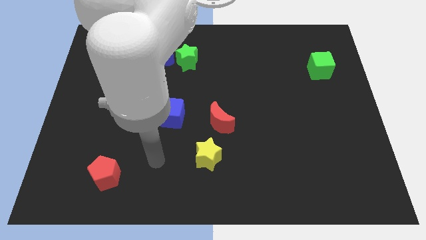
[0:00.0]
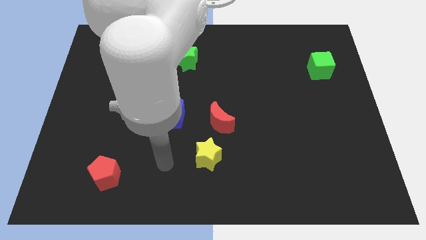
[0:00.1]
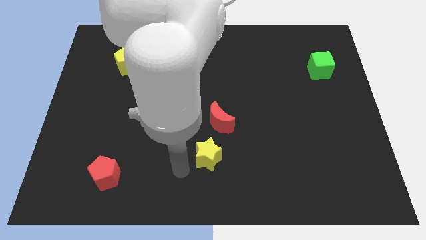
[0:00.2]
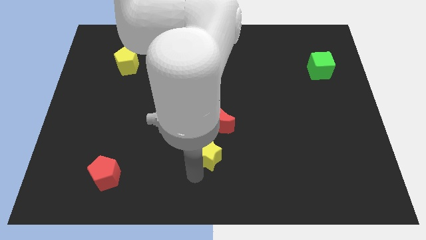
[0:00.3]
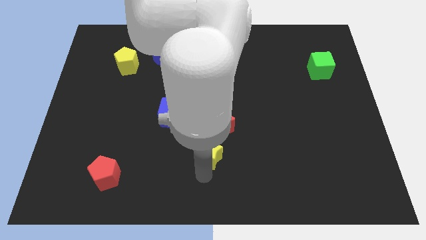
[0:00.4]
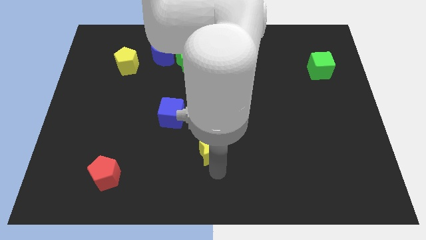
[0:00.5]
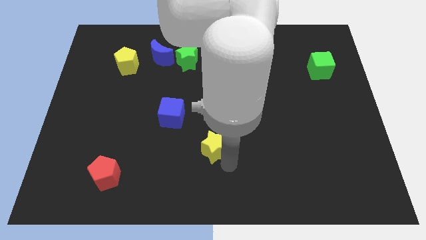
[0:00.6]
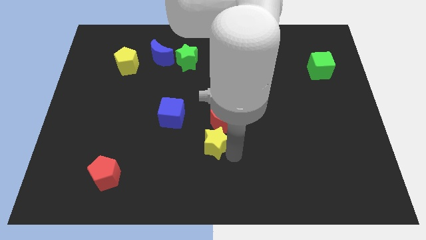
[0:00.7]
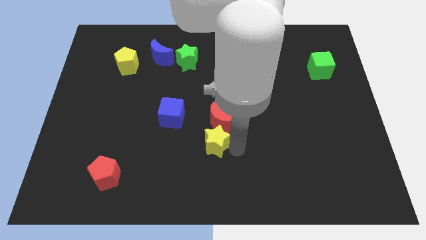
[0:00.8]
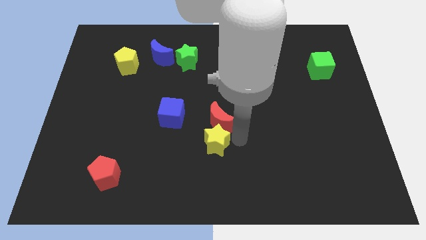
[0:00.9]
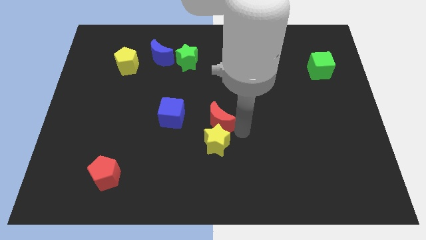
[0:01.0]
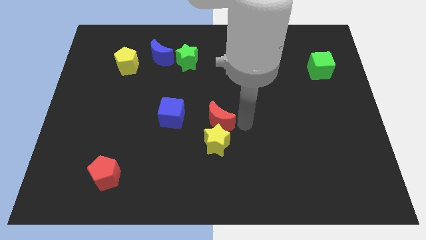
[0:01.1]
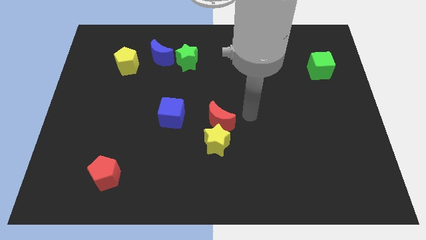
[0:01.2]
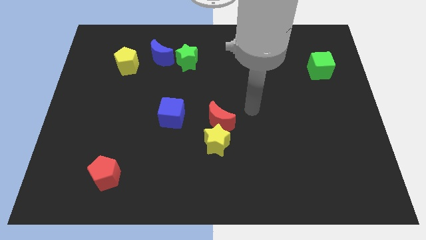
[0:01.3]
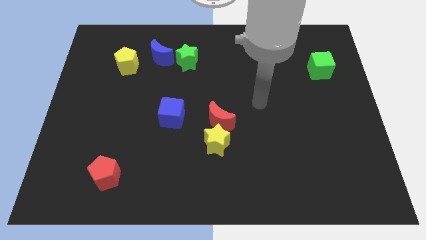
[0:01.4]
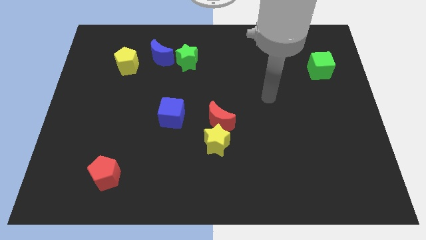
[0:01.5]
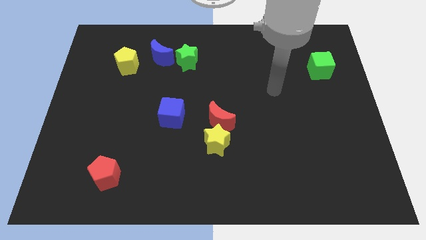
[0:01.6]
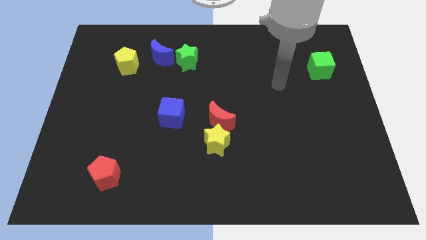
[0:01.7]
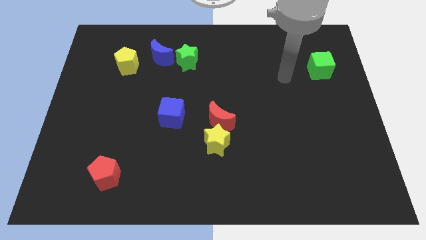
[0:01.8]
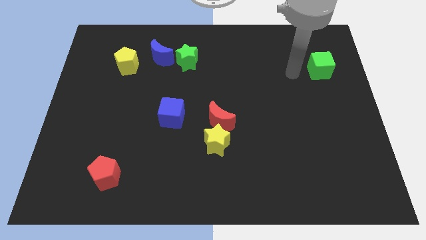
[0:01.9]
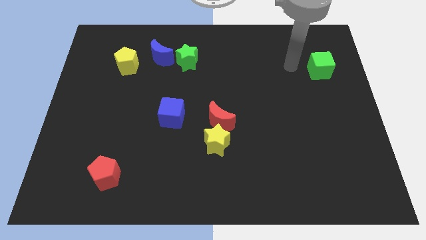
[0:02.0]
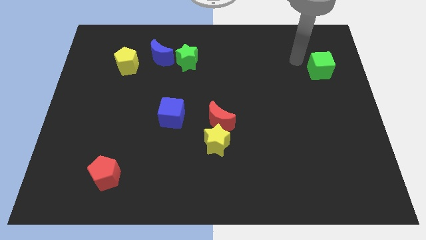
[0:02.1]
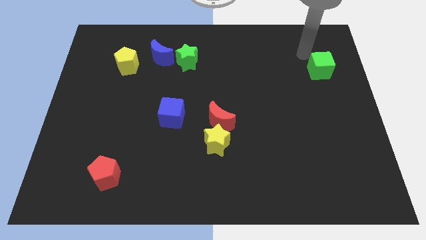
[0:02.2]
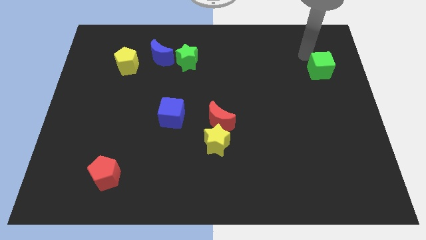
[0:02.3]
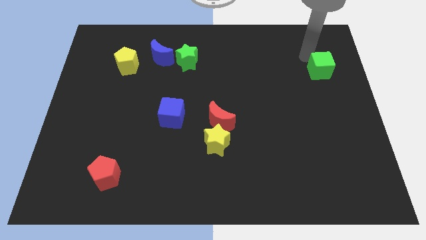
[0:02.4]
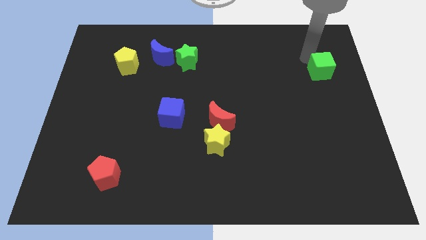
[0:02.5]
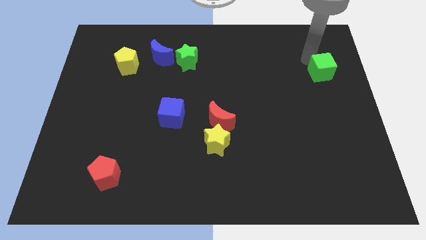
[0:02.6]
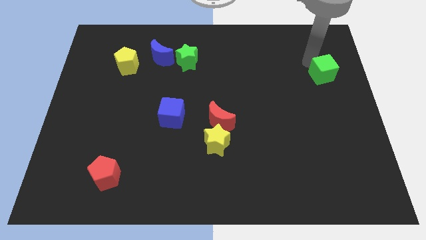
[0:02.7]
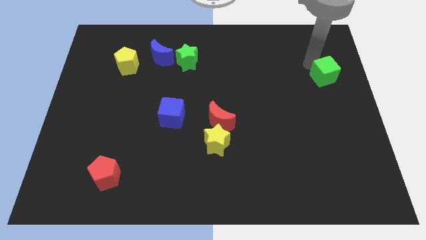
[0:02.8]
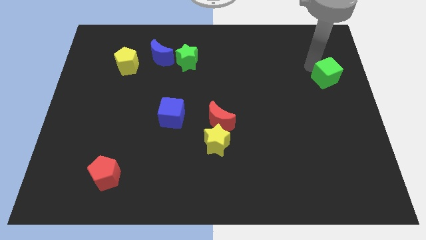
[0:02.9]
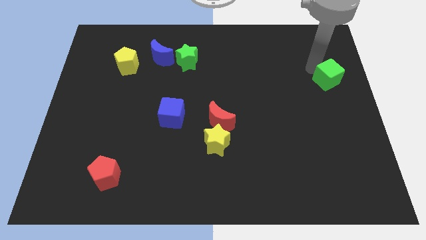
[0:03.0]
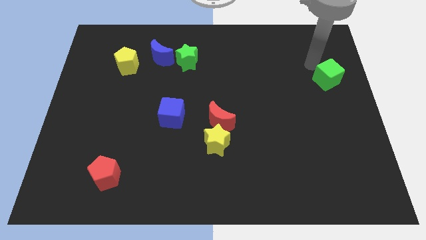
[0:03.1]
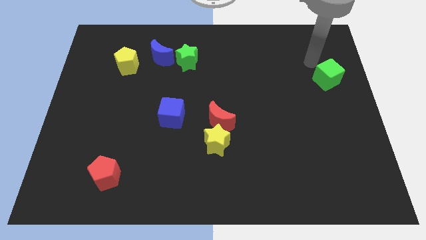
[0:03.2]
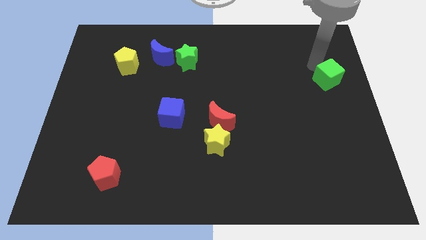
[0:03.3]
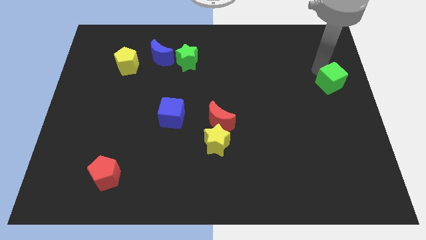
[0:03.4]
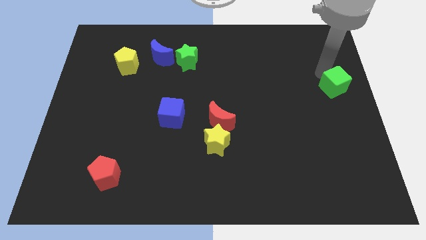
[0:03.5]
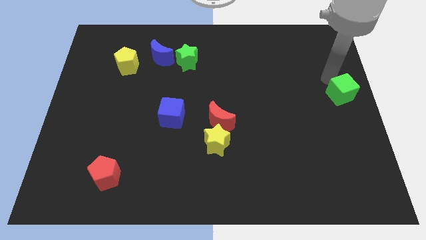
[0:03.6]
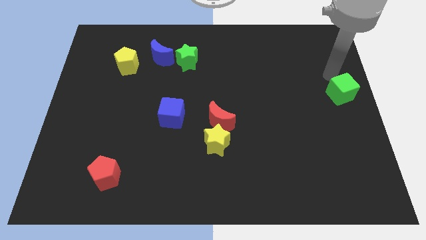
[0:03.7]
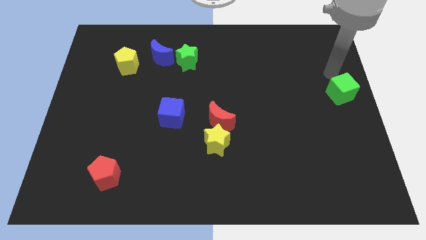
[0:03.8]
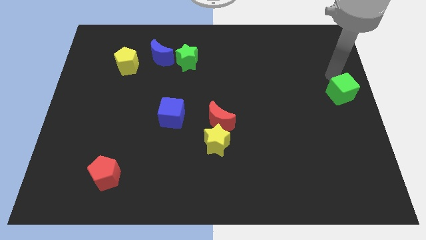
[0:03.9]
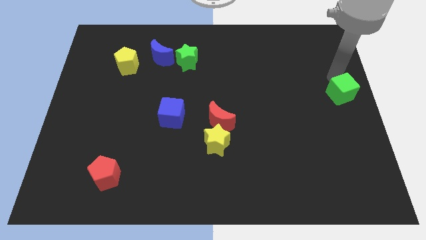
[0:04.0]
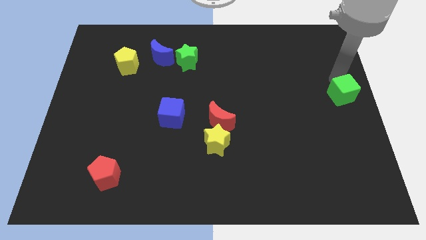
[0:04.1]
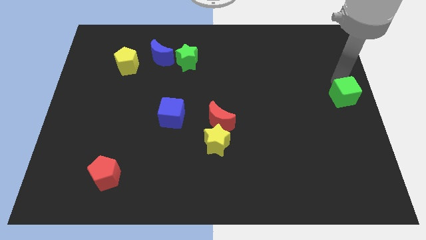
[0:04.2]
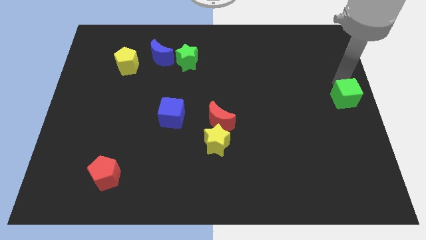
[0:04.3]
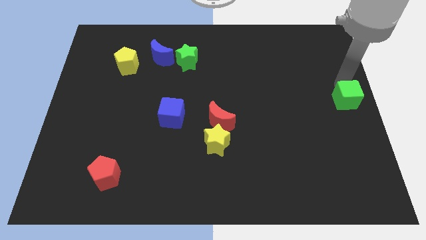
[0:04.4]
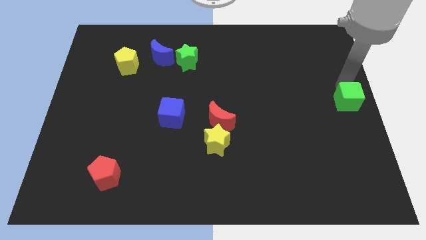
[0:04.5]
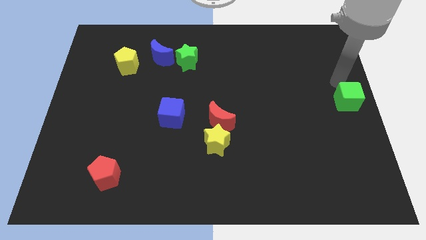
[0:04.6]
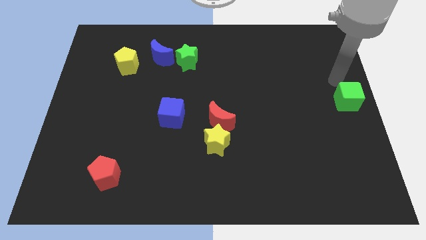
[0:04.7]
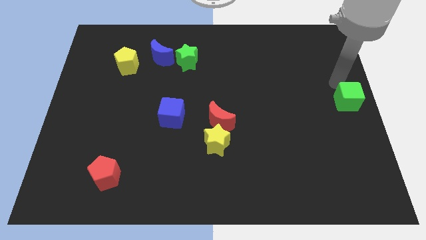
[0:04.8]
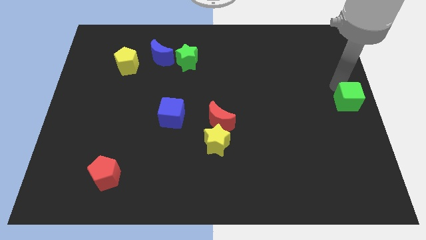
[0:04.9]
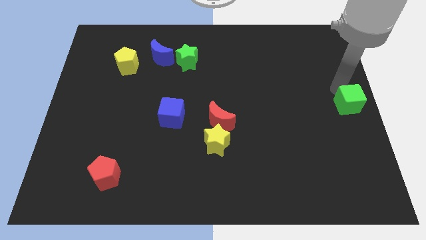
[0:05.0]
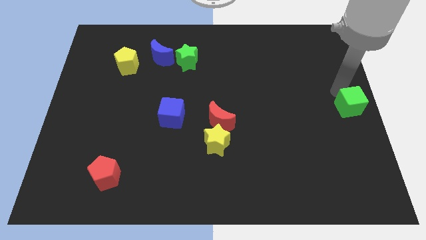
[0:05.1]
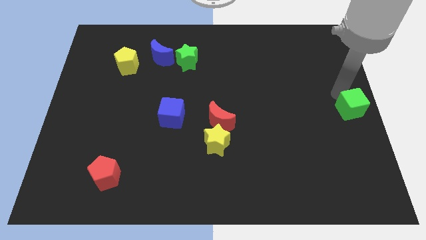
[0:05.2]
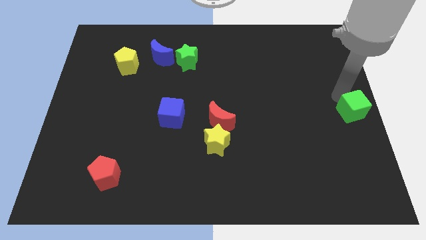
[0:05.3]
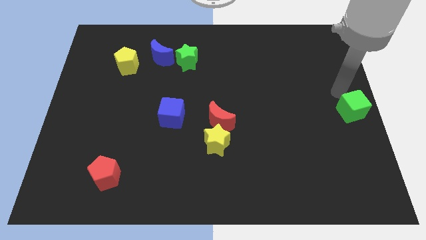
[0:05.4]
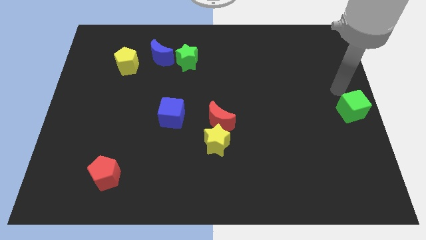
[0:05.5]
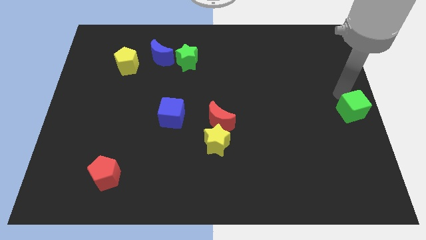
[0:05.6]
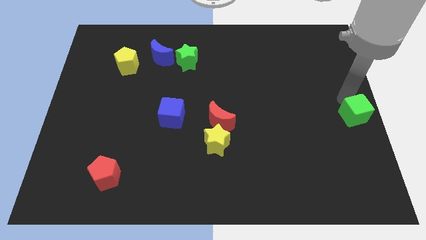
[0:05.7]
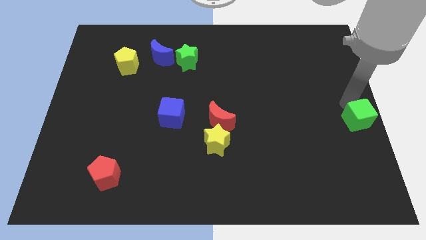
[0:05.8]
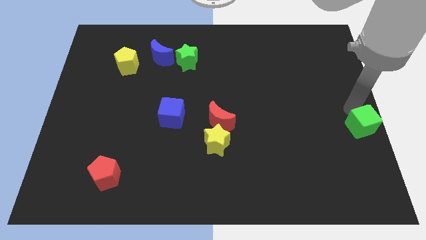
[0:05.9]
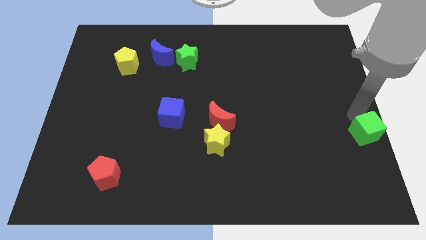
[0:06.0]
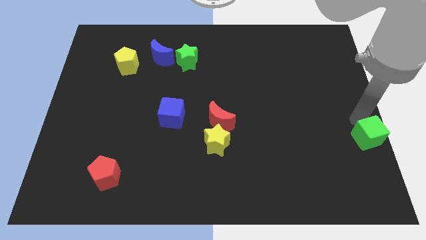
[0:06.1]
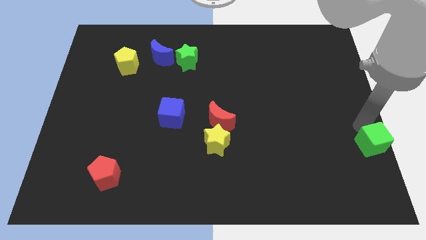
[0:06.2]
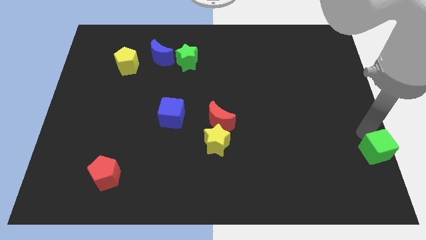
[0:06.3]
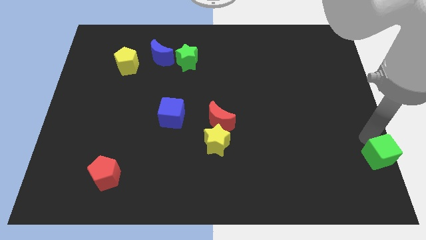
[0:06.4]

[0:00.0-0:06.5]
put the green cube to the bottom right corner
